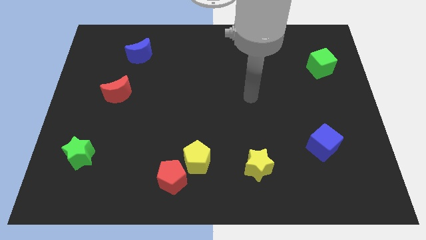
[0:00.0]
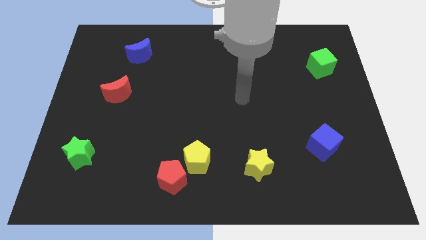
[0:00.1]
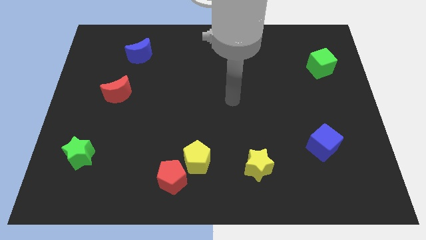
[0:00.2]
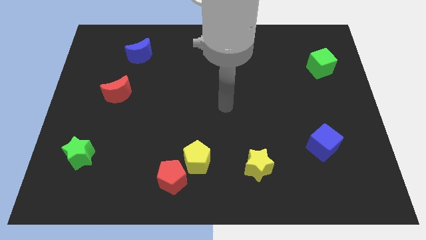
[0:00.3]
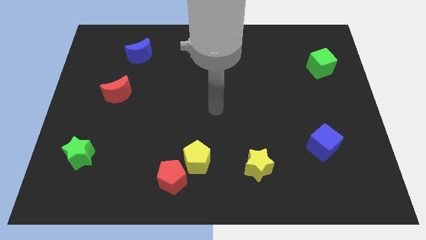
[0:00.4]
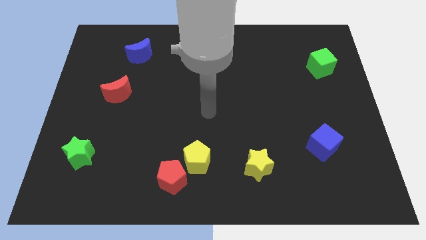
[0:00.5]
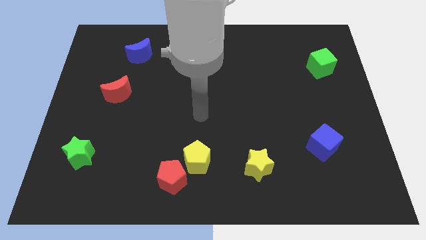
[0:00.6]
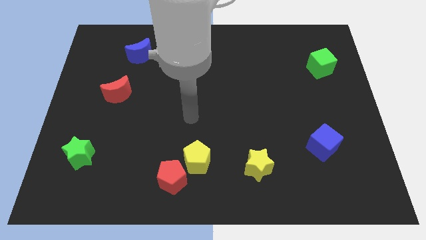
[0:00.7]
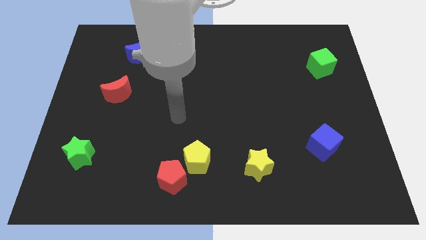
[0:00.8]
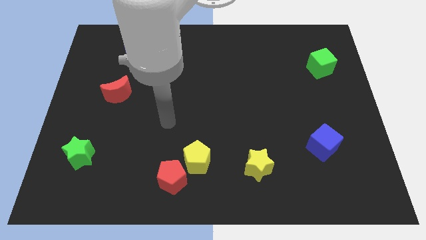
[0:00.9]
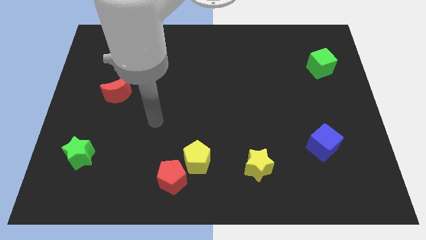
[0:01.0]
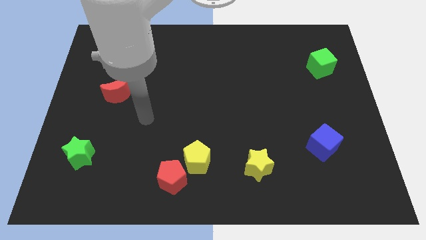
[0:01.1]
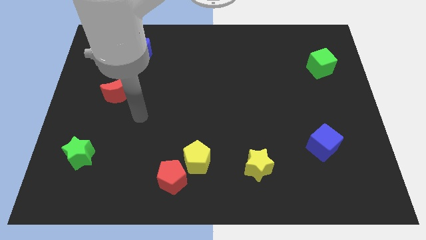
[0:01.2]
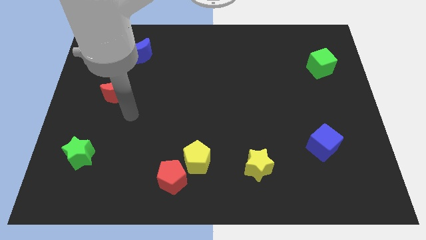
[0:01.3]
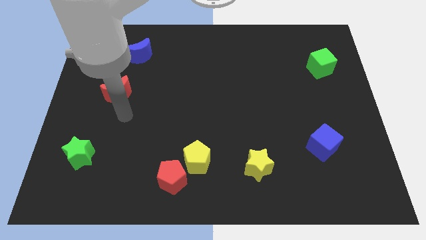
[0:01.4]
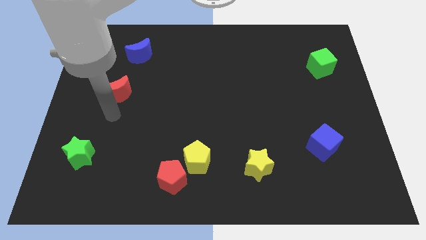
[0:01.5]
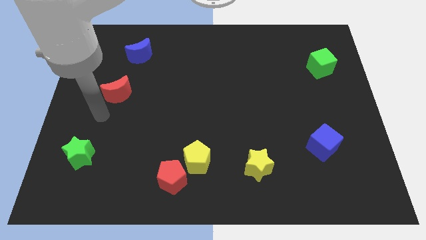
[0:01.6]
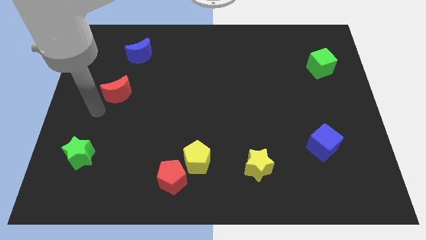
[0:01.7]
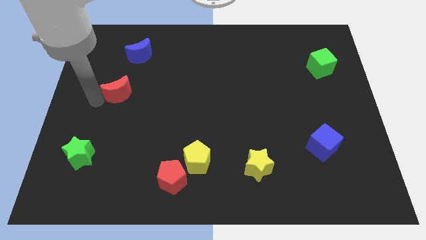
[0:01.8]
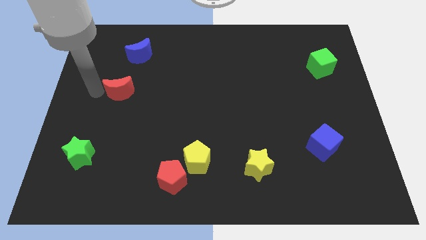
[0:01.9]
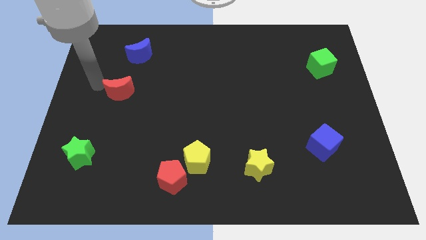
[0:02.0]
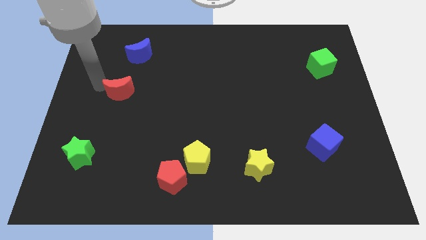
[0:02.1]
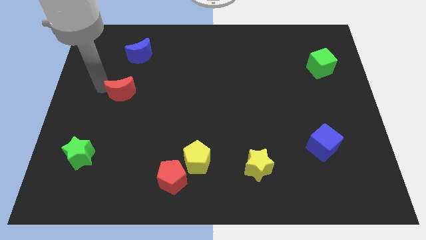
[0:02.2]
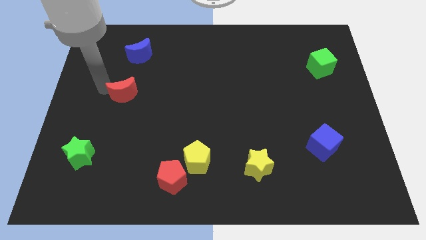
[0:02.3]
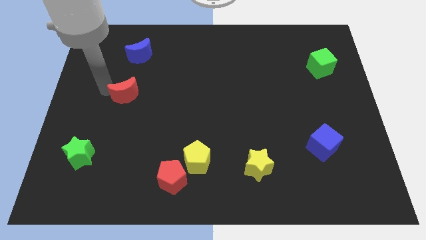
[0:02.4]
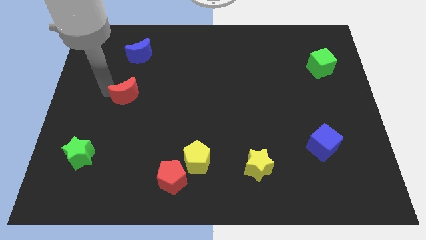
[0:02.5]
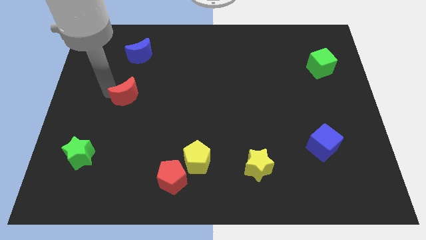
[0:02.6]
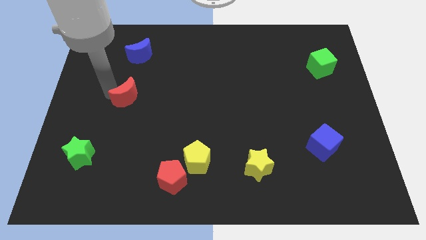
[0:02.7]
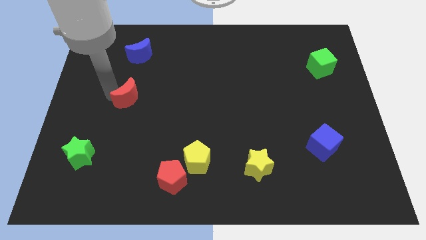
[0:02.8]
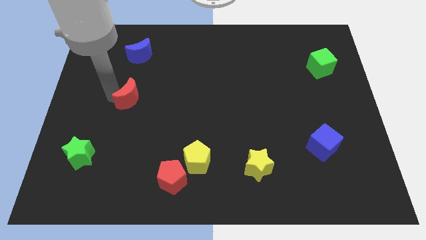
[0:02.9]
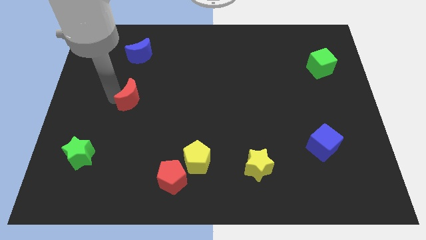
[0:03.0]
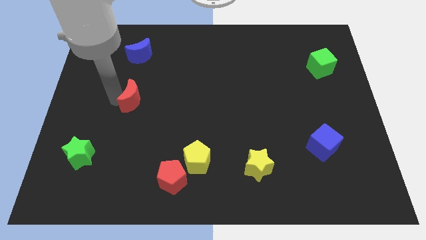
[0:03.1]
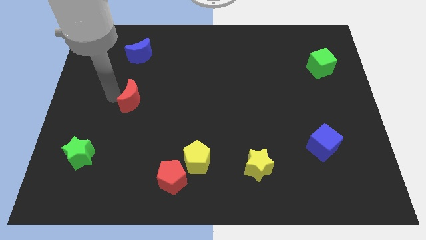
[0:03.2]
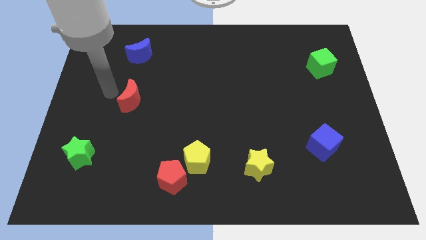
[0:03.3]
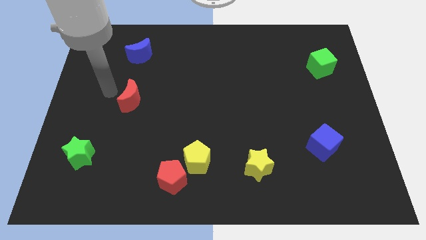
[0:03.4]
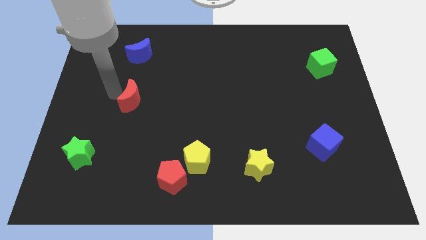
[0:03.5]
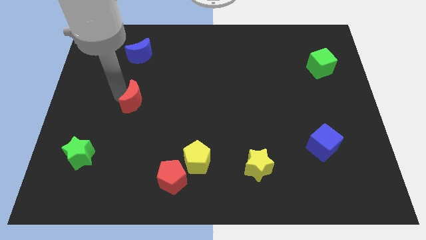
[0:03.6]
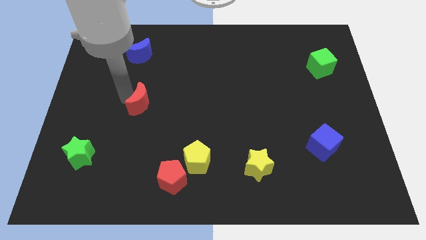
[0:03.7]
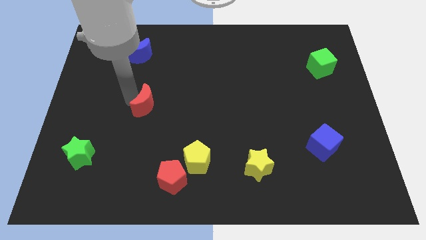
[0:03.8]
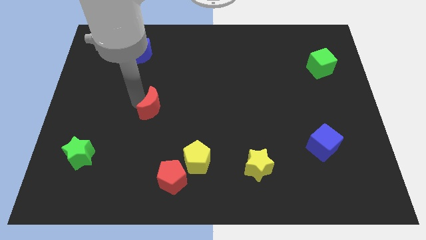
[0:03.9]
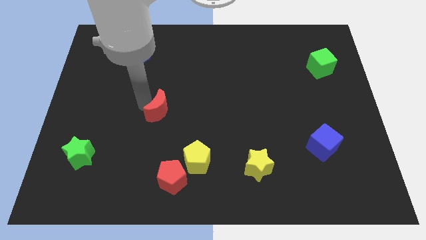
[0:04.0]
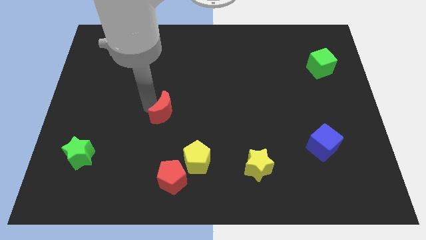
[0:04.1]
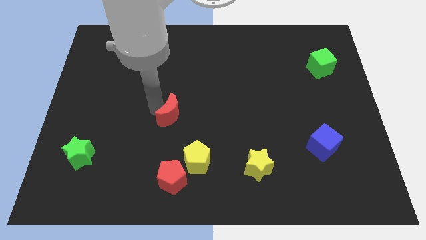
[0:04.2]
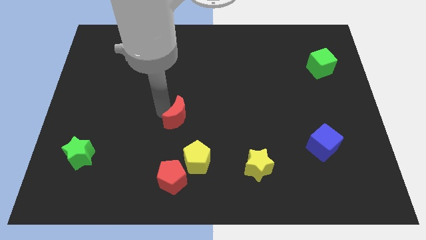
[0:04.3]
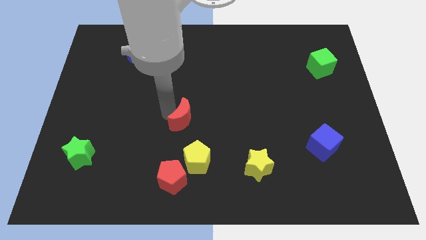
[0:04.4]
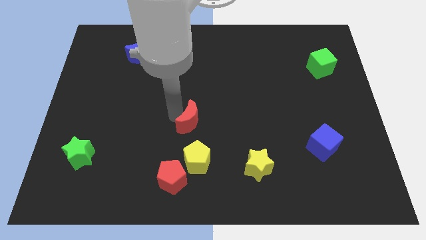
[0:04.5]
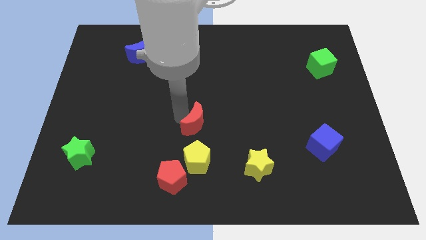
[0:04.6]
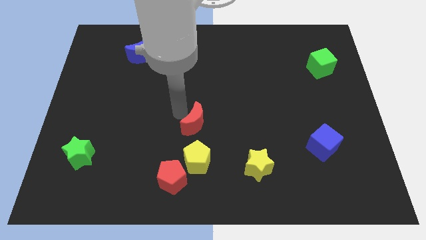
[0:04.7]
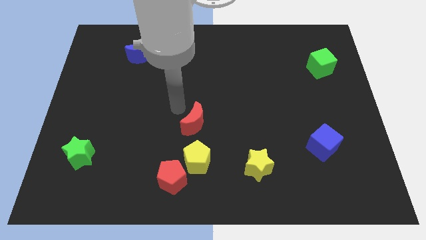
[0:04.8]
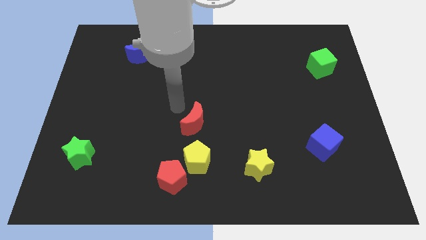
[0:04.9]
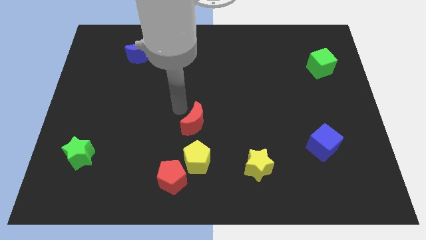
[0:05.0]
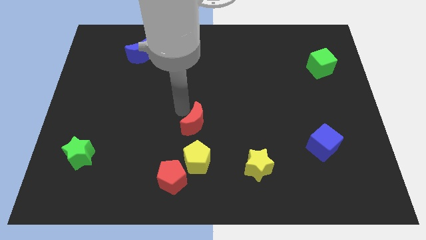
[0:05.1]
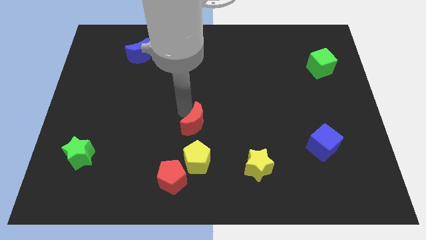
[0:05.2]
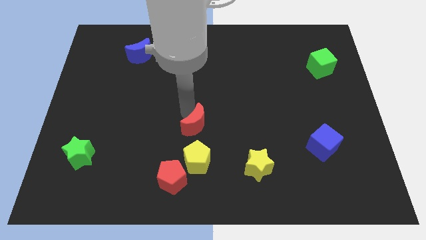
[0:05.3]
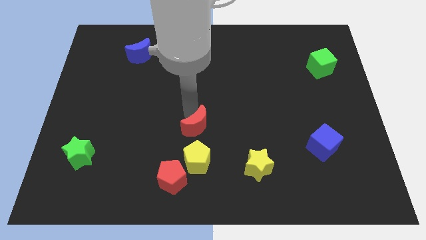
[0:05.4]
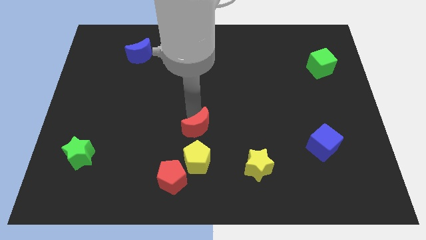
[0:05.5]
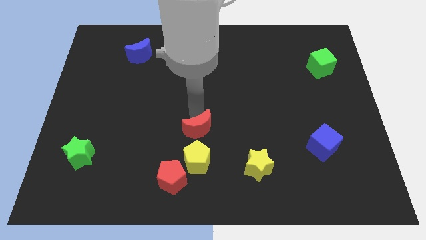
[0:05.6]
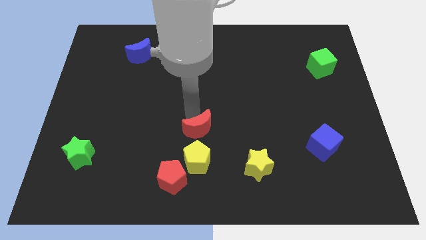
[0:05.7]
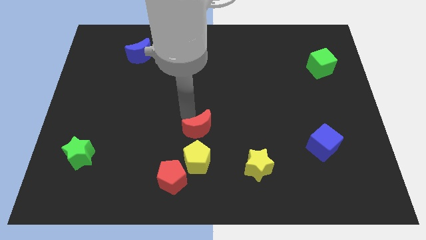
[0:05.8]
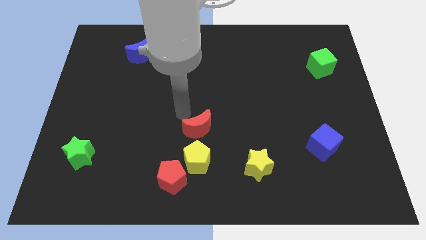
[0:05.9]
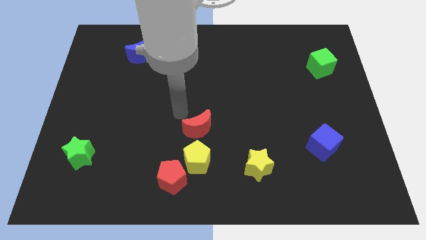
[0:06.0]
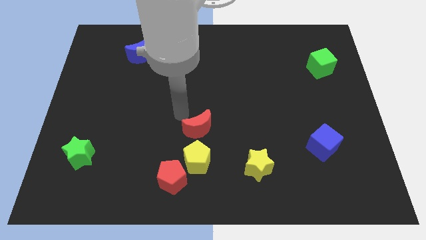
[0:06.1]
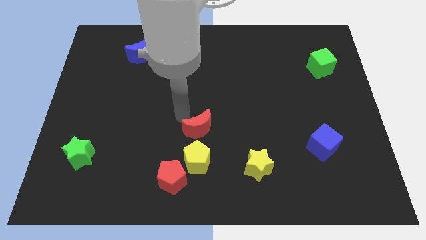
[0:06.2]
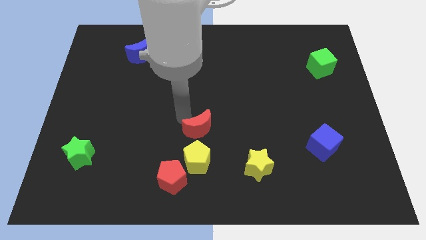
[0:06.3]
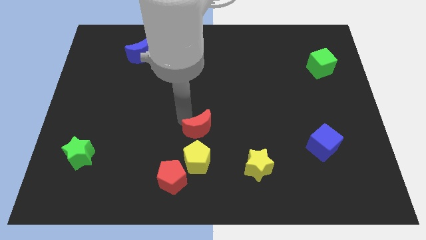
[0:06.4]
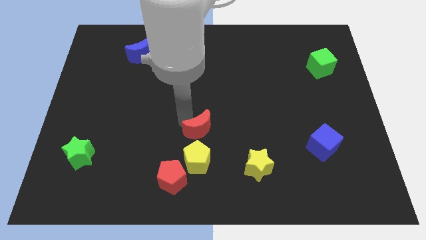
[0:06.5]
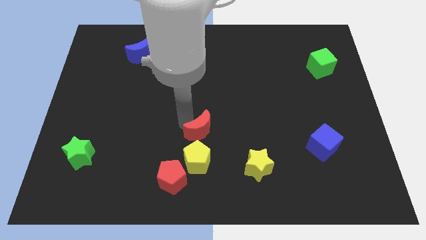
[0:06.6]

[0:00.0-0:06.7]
move the red moon diagonally downwards and to the right

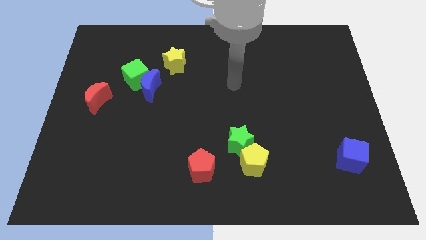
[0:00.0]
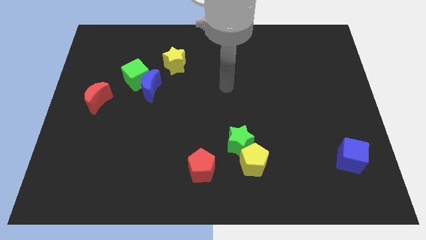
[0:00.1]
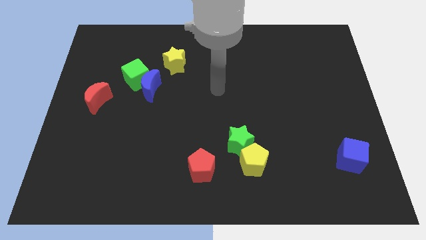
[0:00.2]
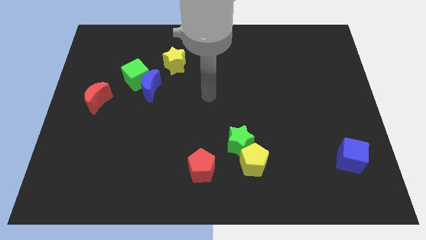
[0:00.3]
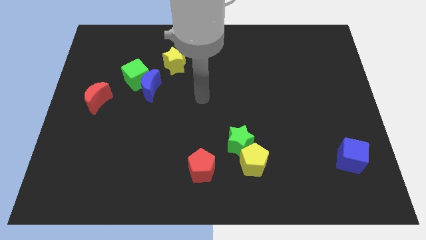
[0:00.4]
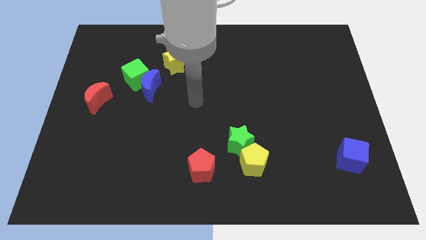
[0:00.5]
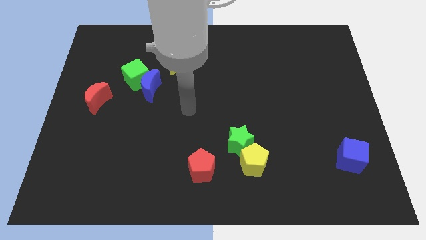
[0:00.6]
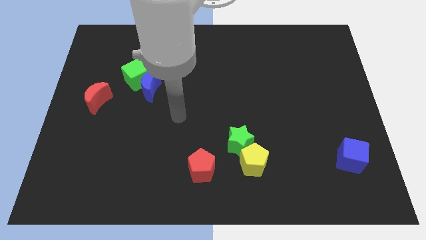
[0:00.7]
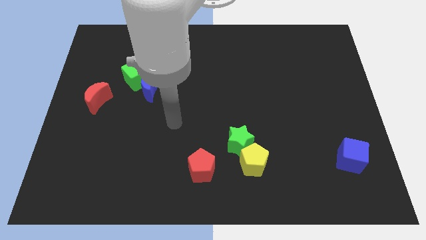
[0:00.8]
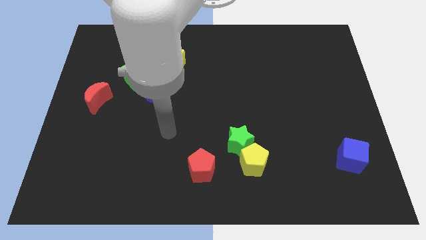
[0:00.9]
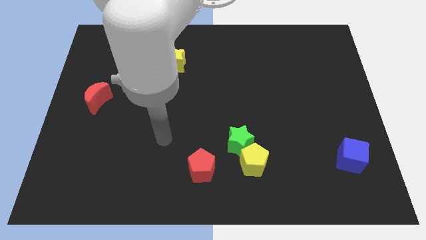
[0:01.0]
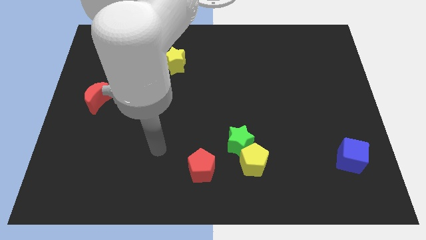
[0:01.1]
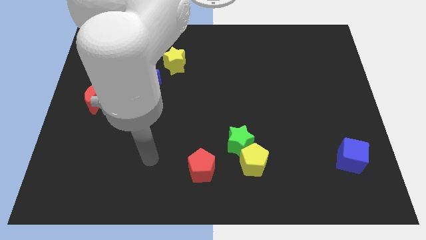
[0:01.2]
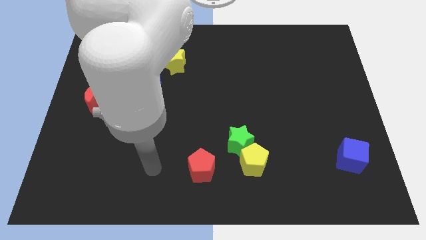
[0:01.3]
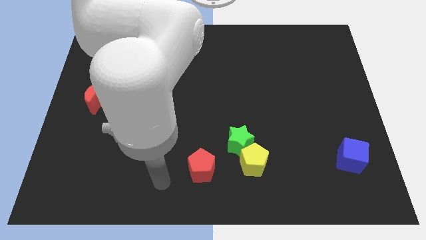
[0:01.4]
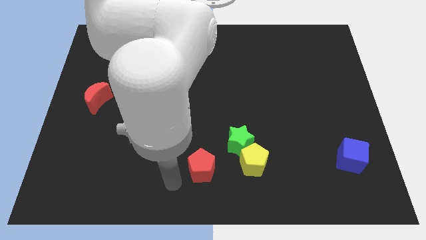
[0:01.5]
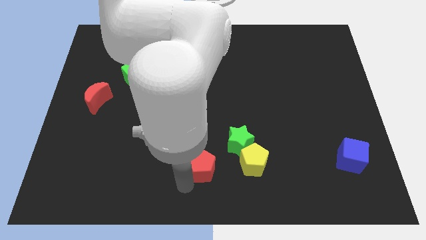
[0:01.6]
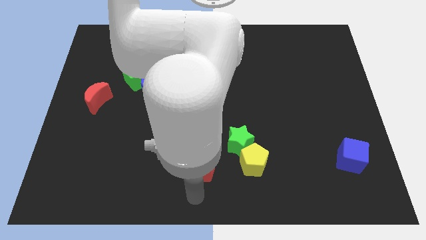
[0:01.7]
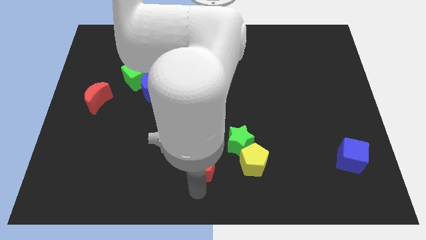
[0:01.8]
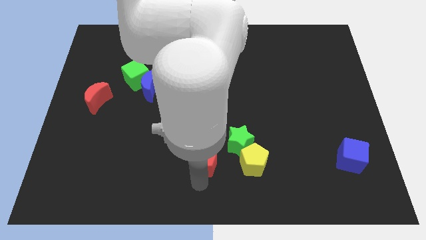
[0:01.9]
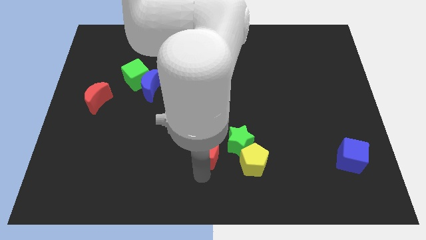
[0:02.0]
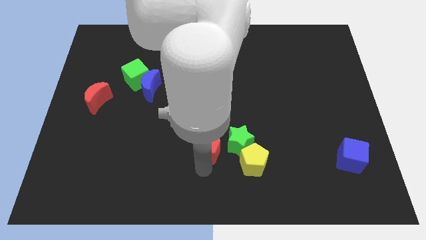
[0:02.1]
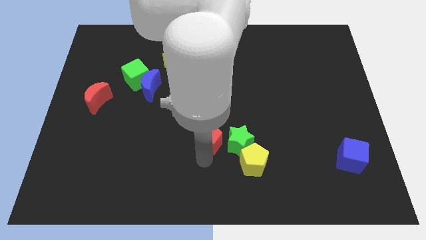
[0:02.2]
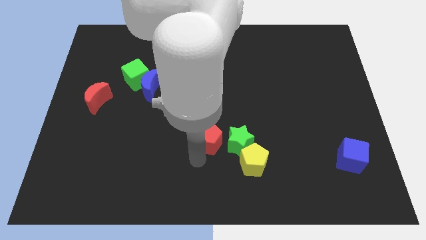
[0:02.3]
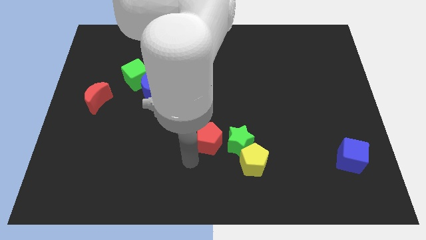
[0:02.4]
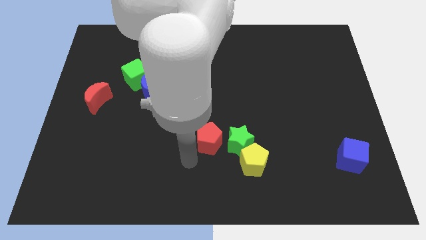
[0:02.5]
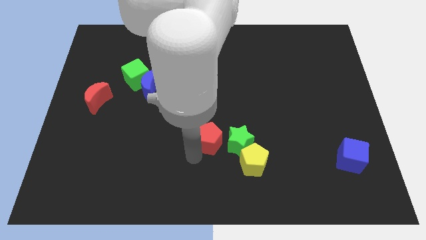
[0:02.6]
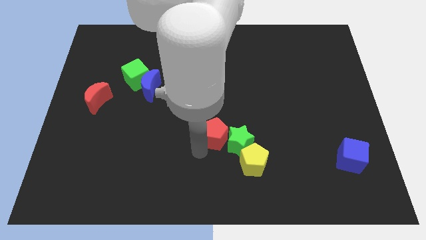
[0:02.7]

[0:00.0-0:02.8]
push the red pentagon diagonally upwards and right somewhat
